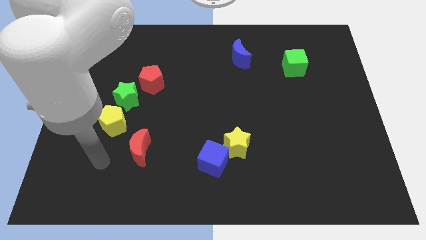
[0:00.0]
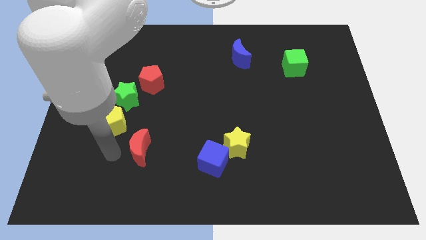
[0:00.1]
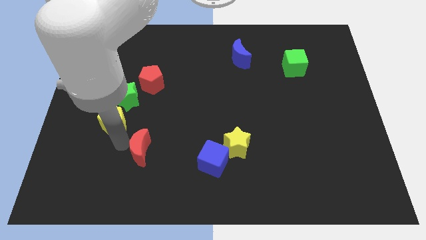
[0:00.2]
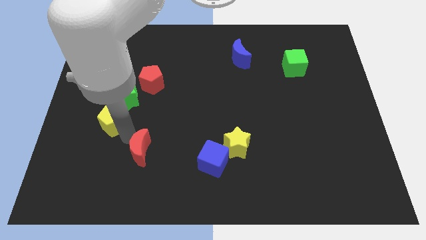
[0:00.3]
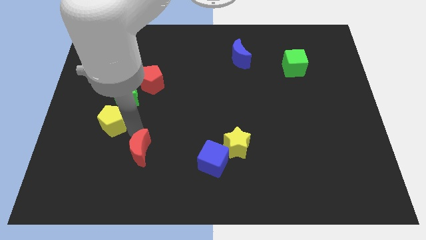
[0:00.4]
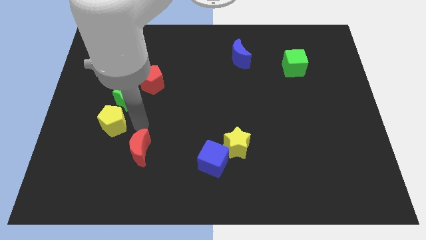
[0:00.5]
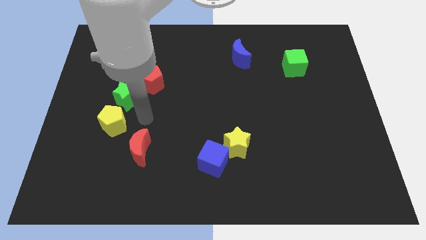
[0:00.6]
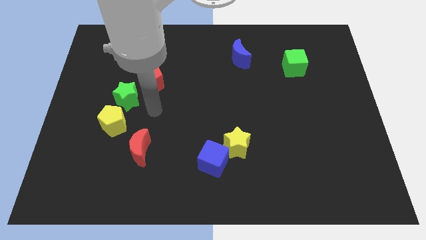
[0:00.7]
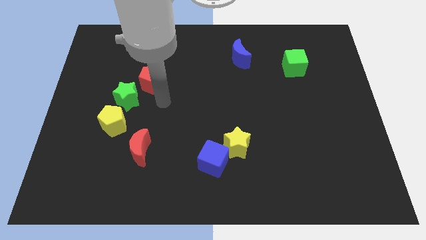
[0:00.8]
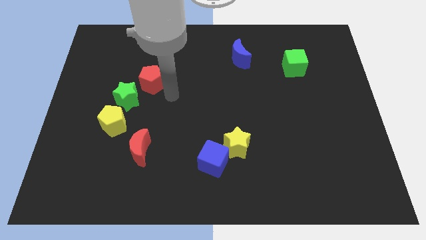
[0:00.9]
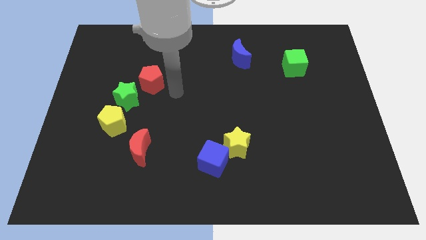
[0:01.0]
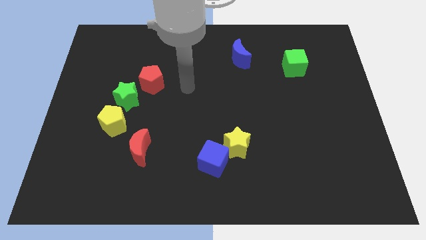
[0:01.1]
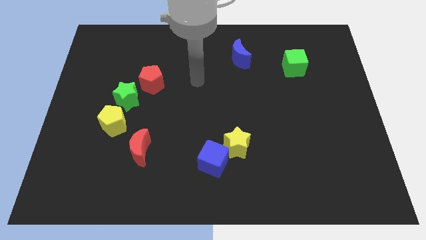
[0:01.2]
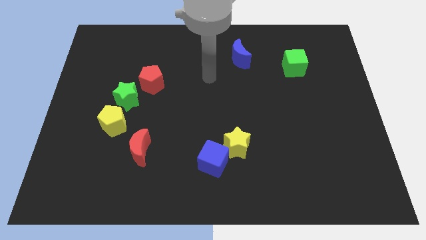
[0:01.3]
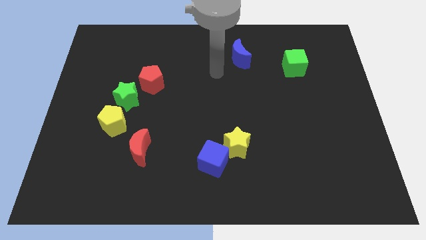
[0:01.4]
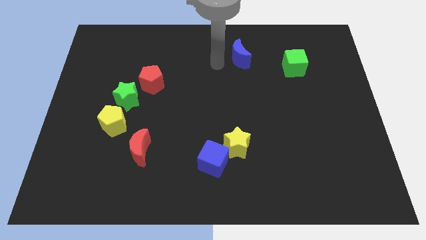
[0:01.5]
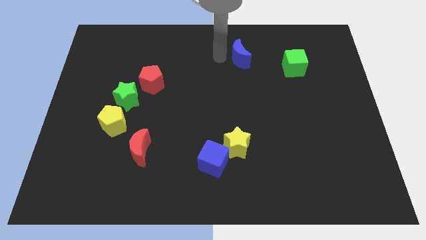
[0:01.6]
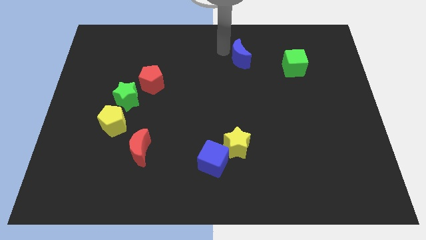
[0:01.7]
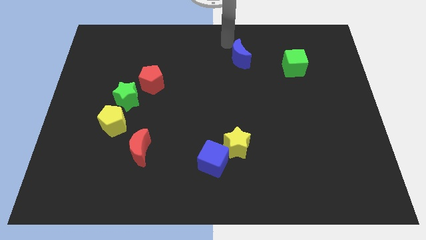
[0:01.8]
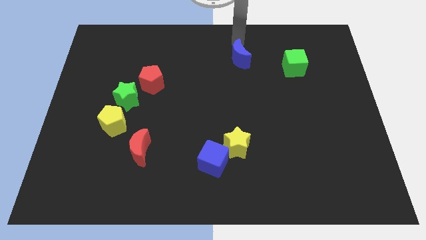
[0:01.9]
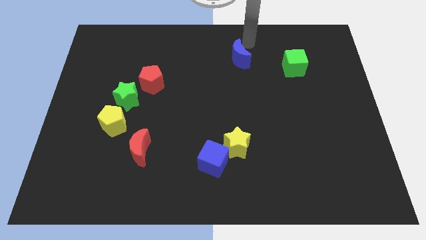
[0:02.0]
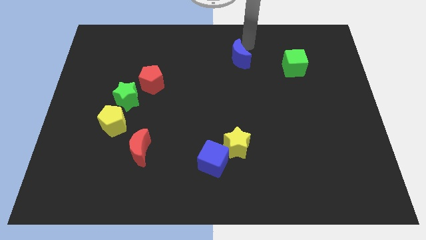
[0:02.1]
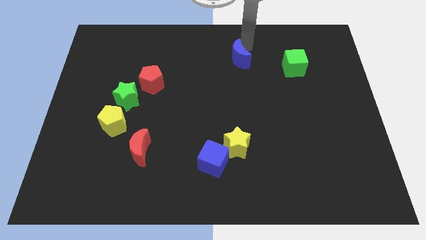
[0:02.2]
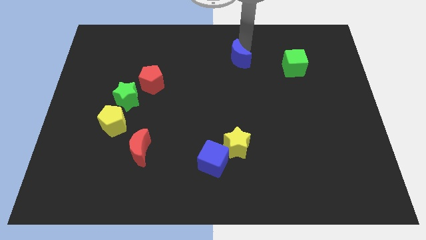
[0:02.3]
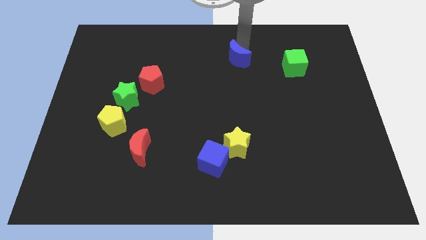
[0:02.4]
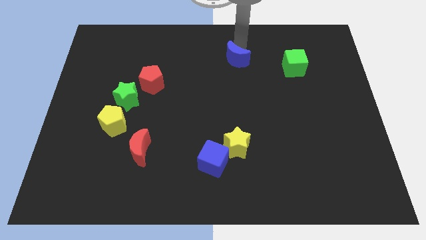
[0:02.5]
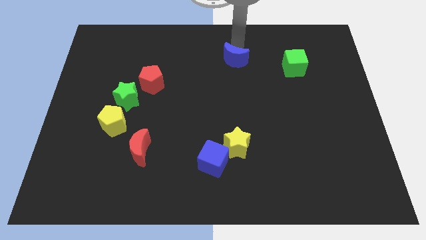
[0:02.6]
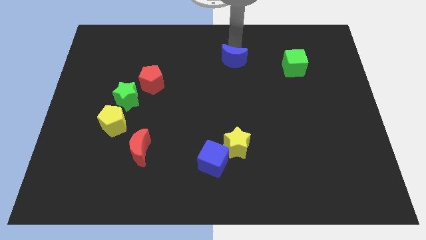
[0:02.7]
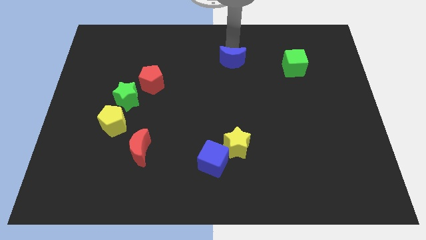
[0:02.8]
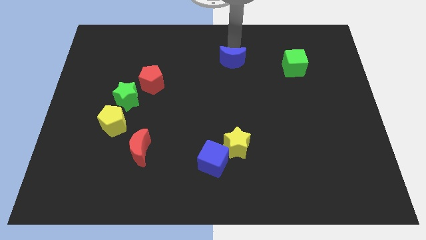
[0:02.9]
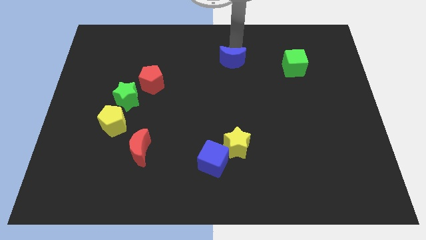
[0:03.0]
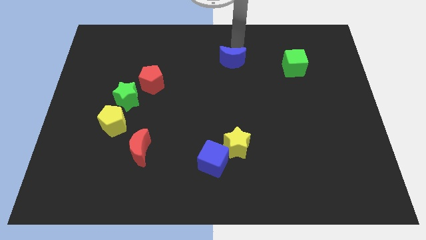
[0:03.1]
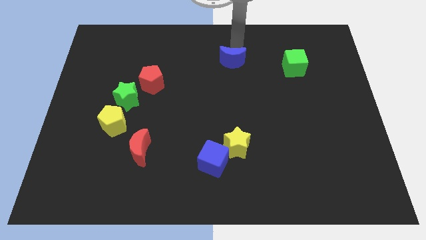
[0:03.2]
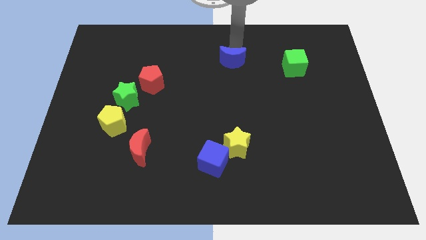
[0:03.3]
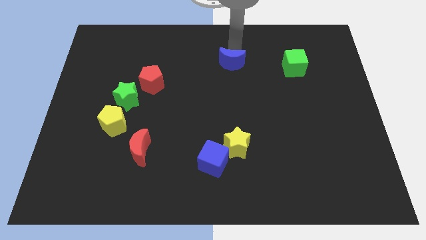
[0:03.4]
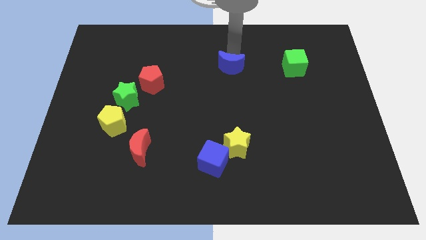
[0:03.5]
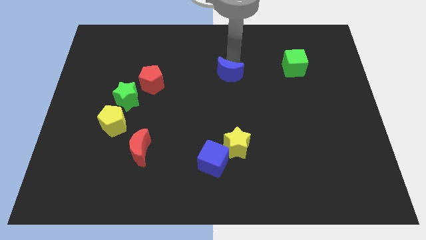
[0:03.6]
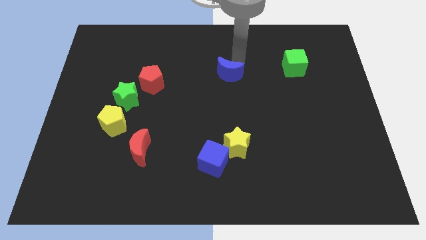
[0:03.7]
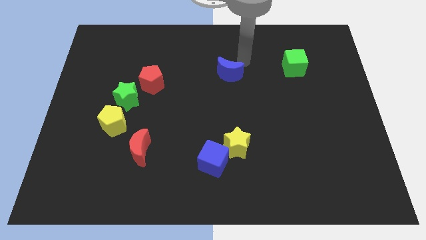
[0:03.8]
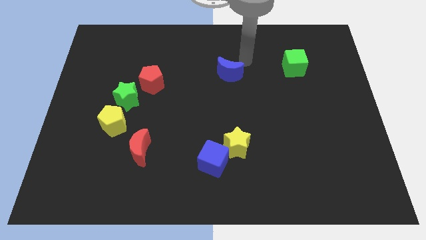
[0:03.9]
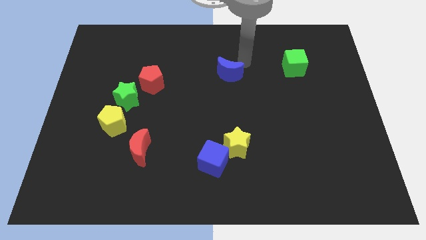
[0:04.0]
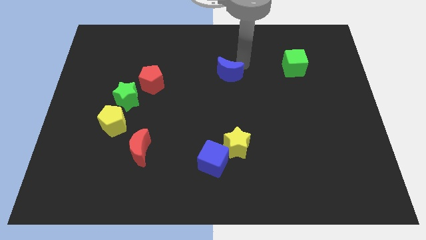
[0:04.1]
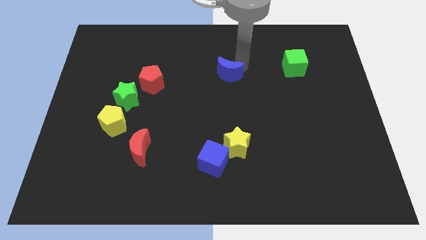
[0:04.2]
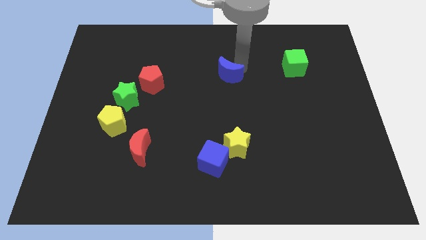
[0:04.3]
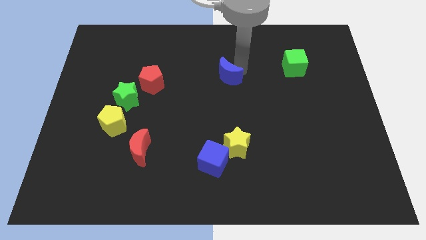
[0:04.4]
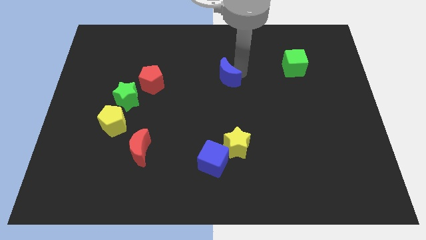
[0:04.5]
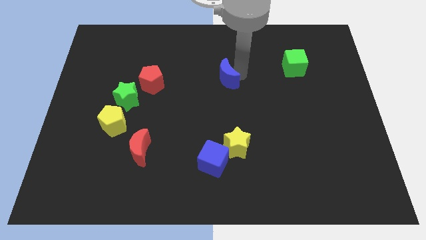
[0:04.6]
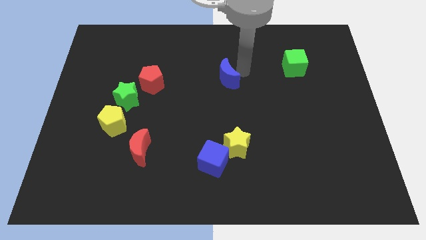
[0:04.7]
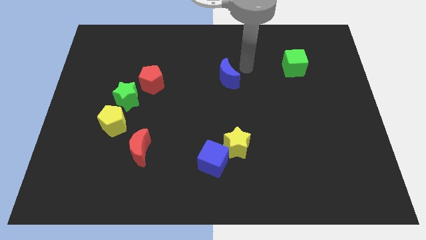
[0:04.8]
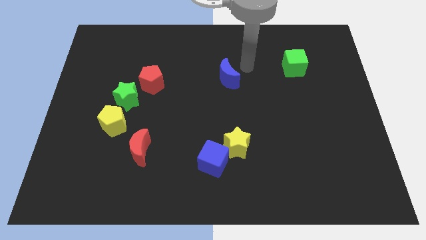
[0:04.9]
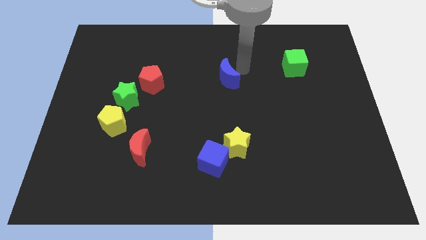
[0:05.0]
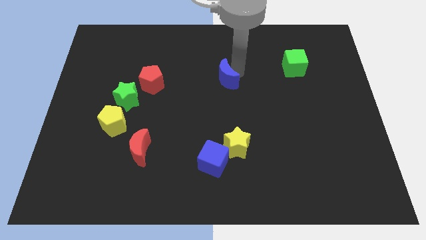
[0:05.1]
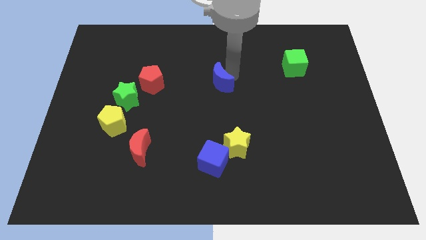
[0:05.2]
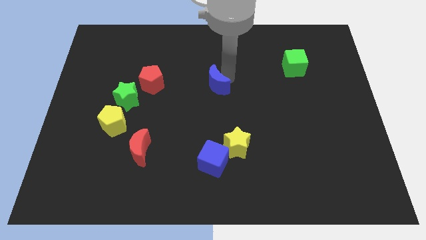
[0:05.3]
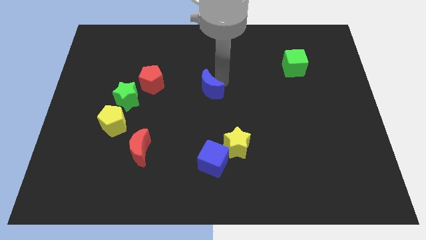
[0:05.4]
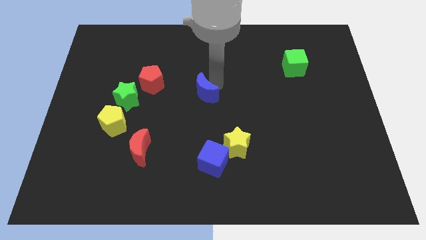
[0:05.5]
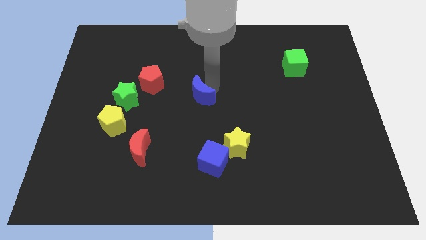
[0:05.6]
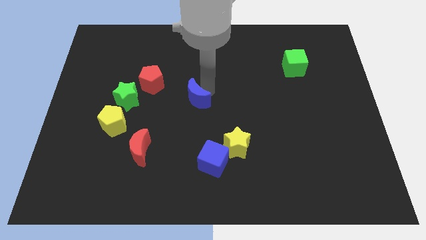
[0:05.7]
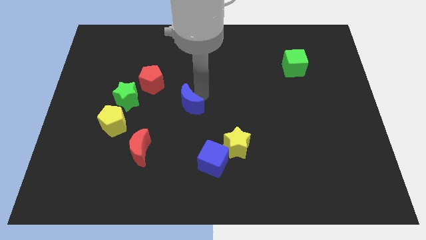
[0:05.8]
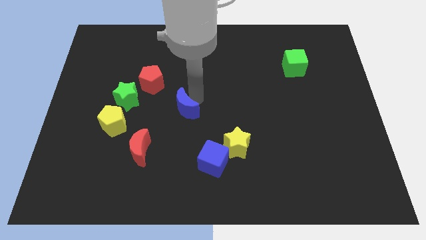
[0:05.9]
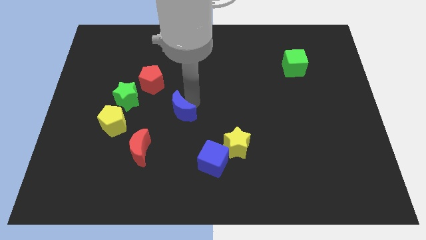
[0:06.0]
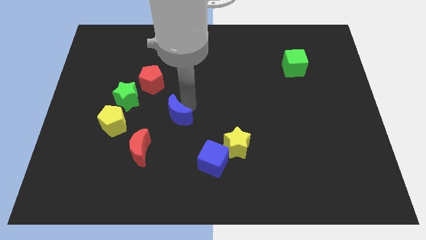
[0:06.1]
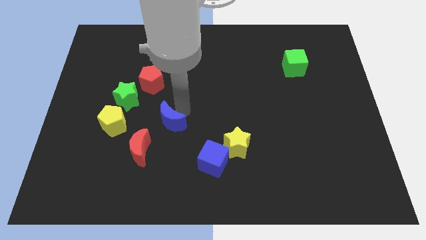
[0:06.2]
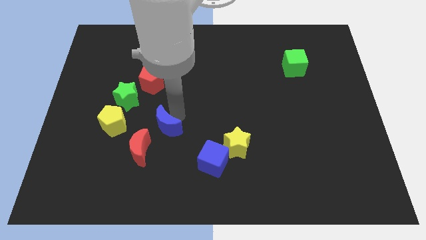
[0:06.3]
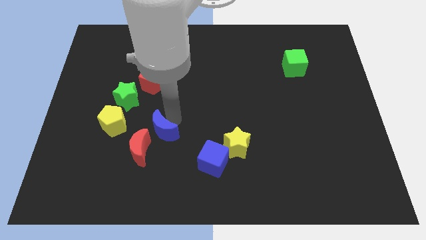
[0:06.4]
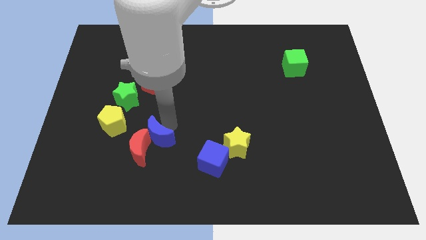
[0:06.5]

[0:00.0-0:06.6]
put the blue moon towards the red moon

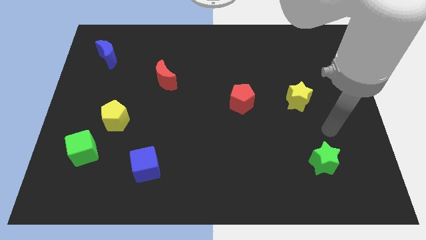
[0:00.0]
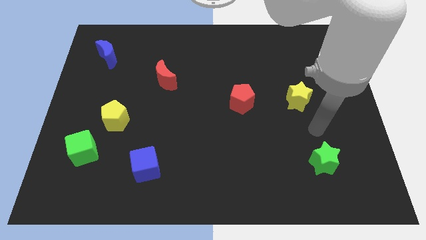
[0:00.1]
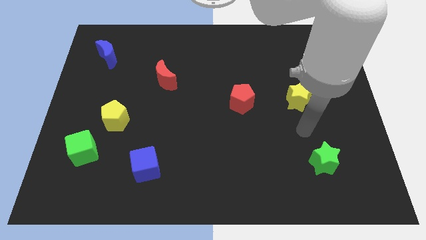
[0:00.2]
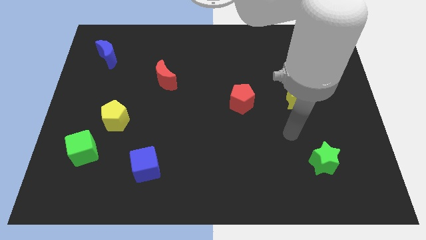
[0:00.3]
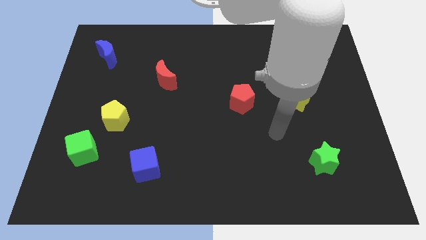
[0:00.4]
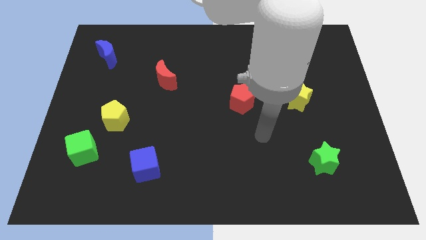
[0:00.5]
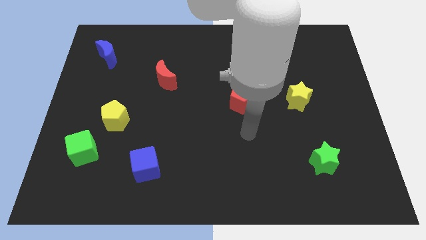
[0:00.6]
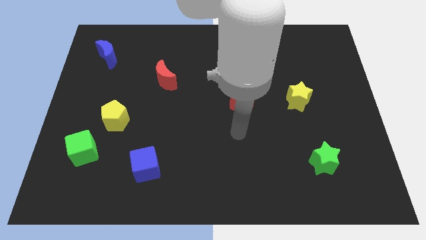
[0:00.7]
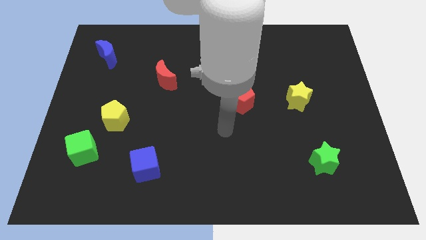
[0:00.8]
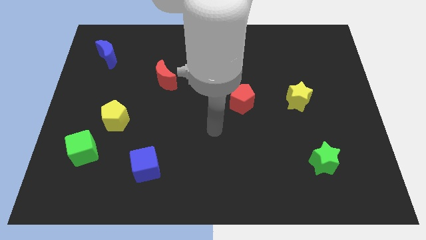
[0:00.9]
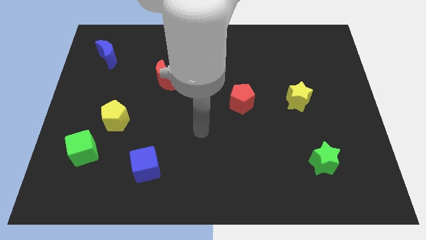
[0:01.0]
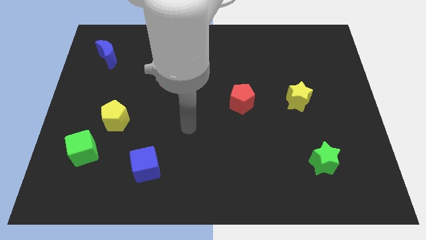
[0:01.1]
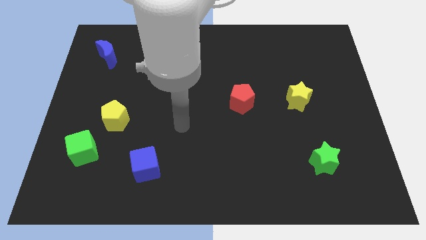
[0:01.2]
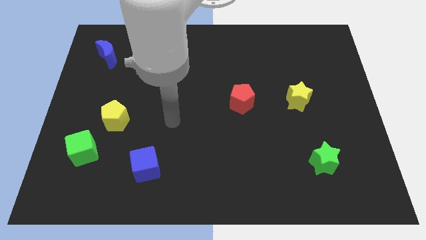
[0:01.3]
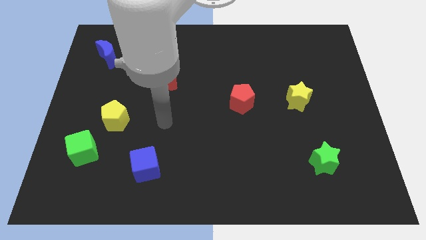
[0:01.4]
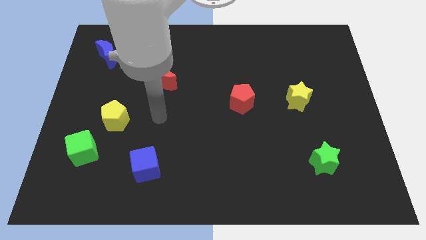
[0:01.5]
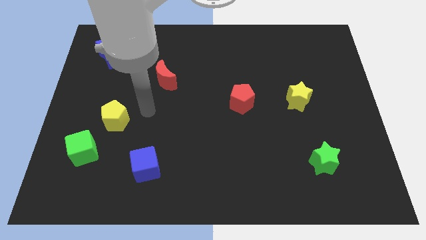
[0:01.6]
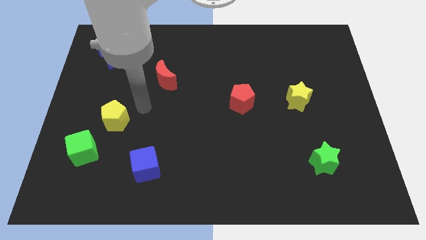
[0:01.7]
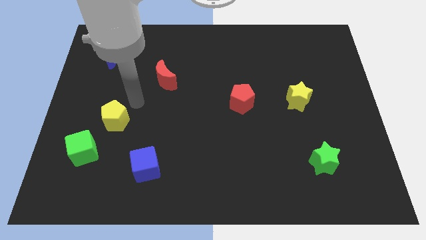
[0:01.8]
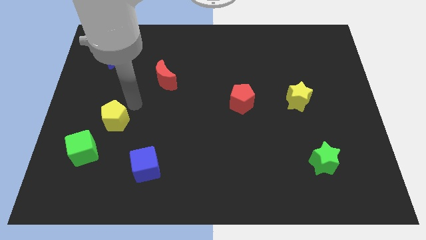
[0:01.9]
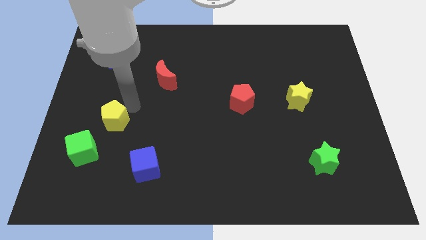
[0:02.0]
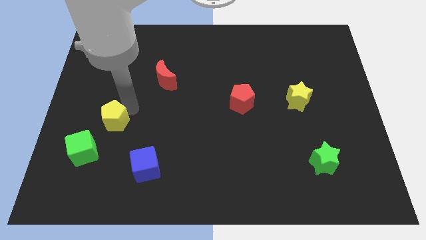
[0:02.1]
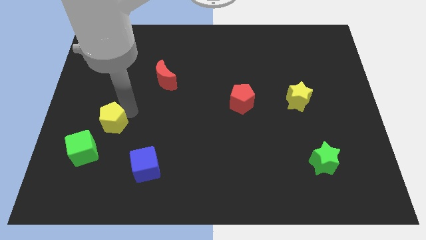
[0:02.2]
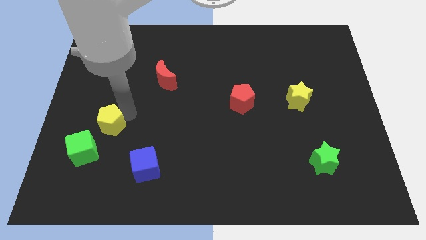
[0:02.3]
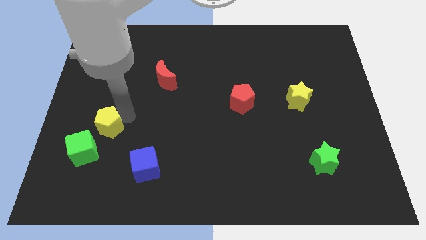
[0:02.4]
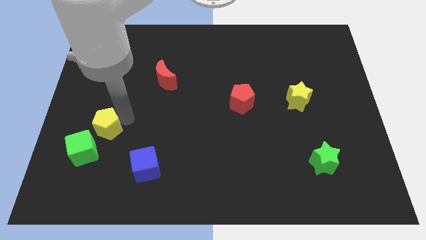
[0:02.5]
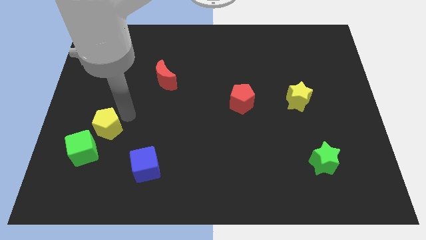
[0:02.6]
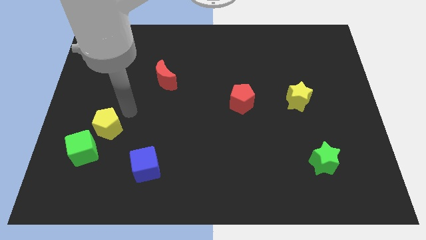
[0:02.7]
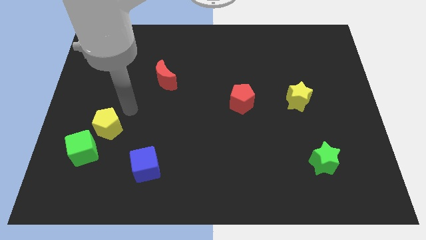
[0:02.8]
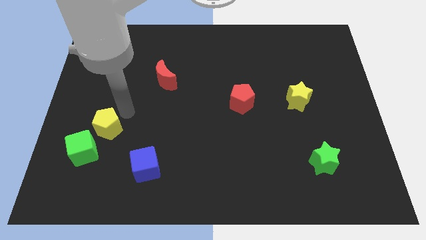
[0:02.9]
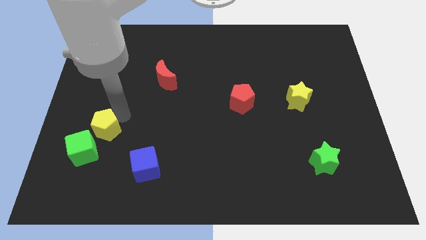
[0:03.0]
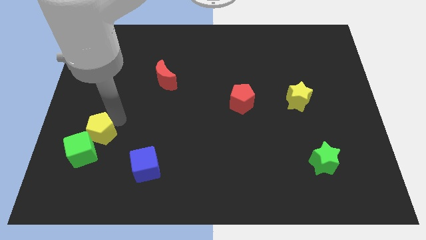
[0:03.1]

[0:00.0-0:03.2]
push the yellow pentagon to the green cube
